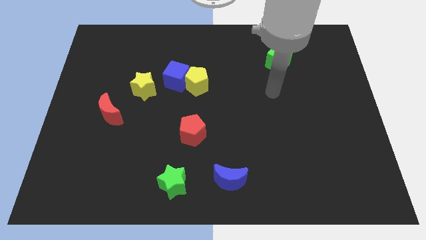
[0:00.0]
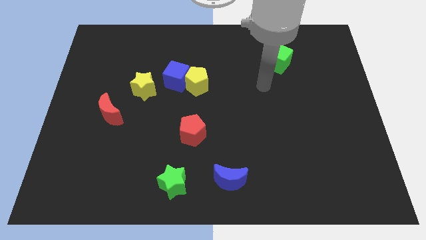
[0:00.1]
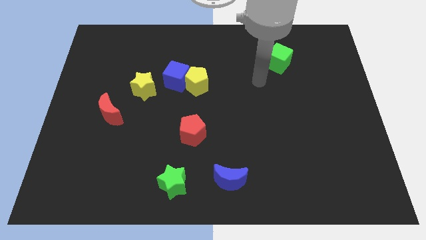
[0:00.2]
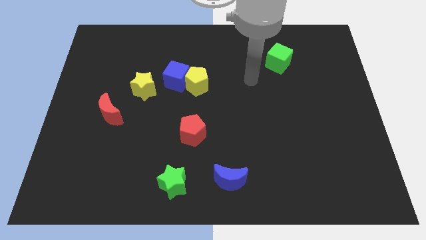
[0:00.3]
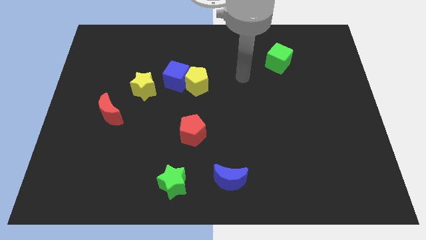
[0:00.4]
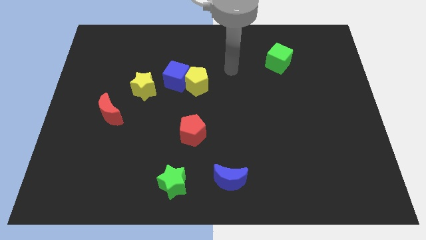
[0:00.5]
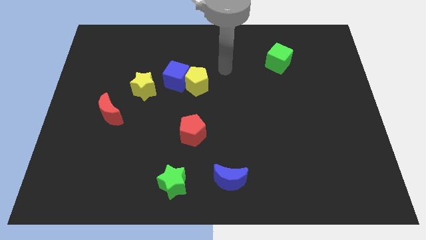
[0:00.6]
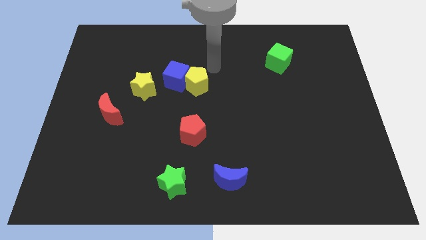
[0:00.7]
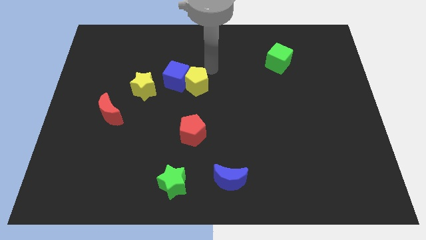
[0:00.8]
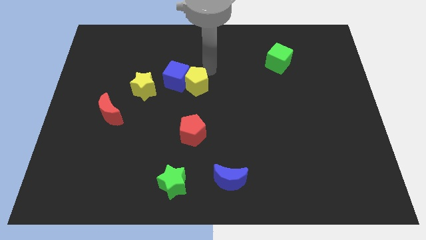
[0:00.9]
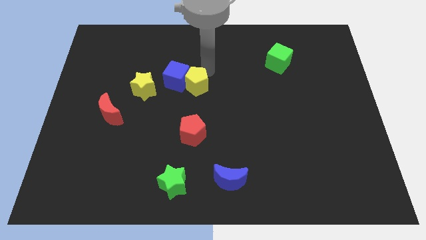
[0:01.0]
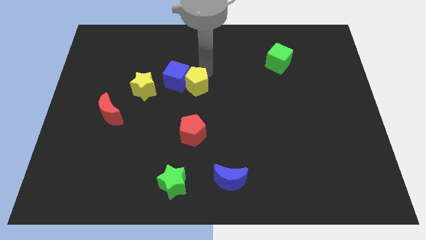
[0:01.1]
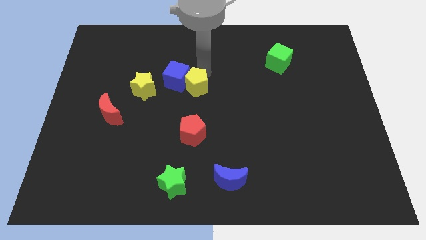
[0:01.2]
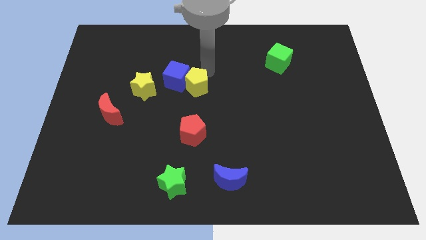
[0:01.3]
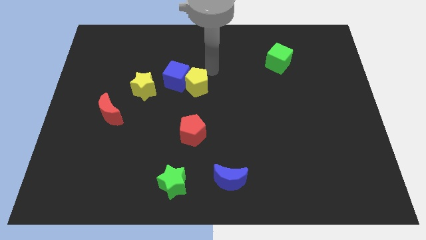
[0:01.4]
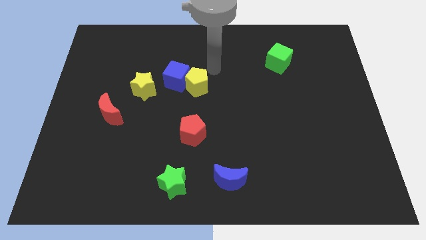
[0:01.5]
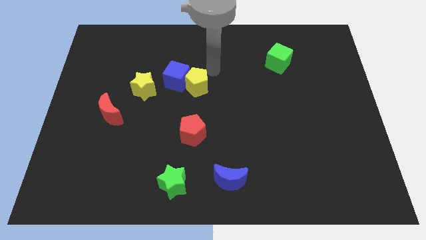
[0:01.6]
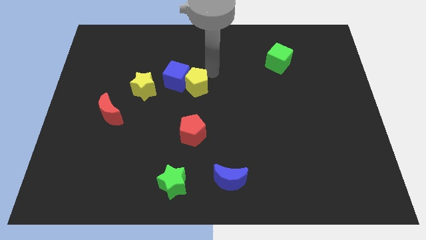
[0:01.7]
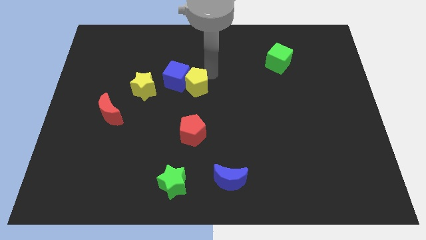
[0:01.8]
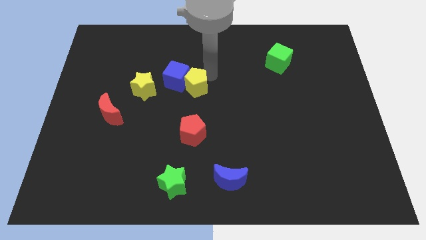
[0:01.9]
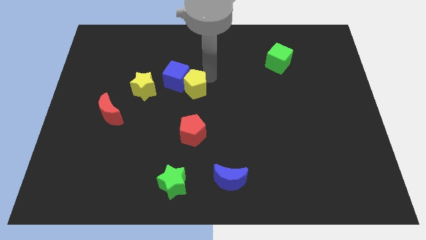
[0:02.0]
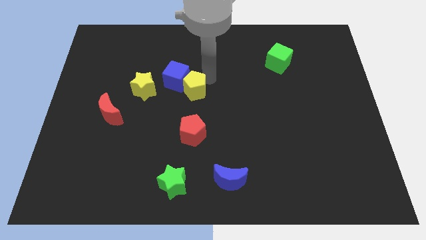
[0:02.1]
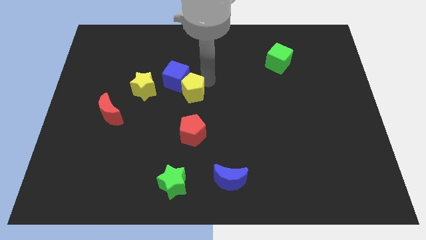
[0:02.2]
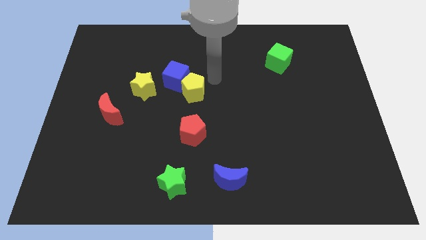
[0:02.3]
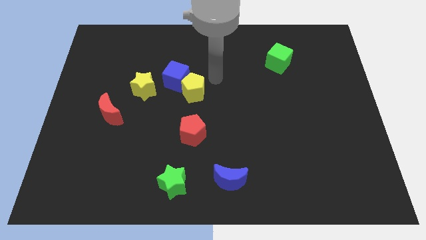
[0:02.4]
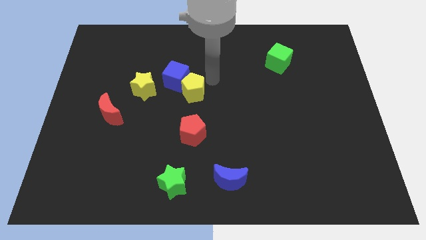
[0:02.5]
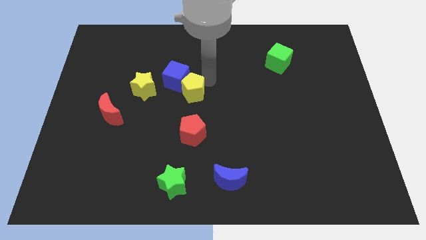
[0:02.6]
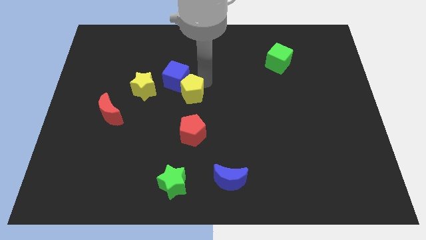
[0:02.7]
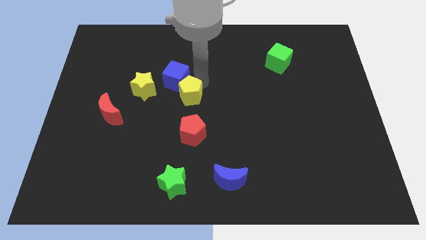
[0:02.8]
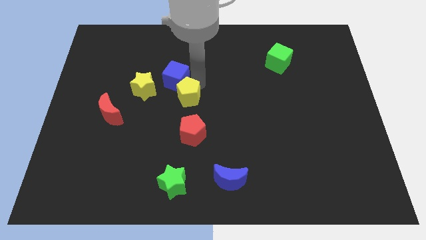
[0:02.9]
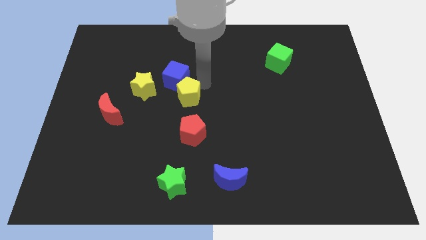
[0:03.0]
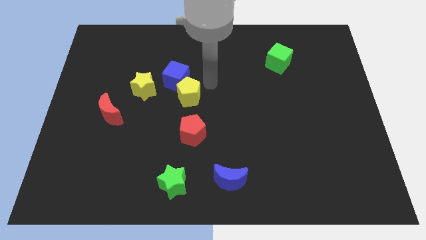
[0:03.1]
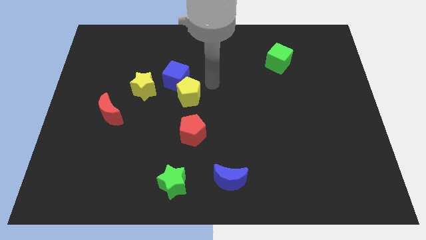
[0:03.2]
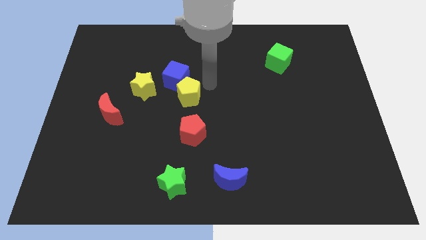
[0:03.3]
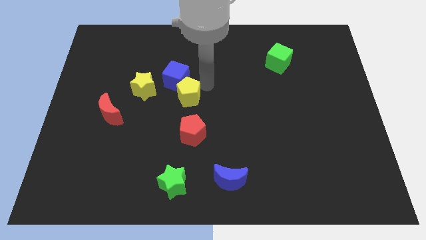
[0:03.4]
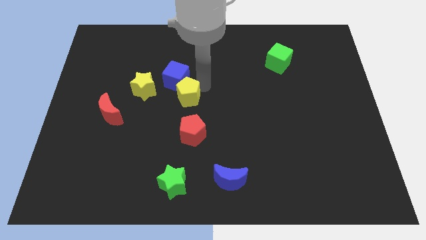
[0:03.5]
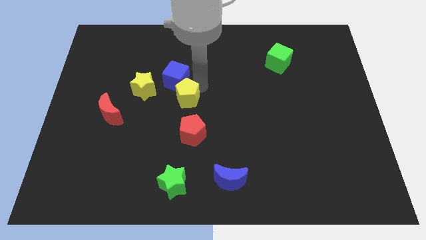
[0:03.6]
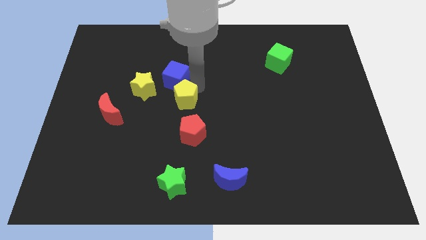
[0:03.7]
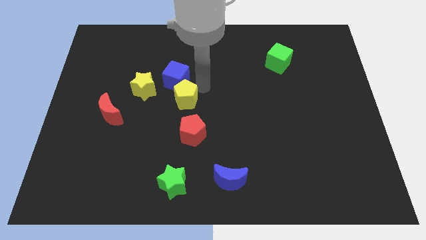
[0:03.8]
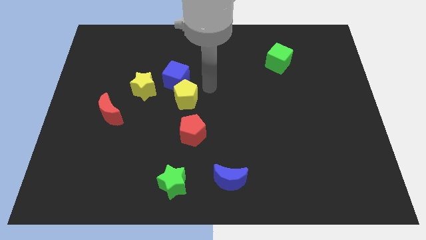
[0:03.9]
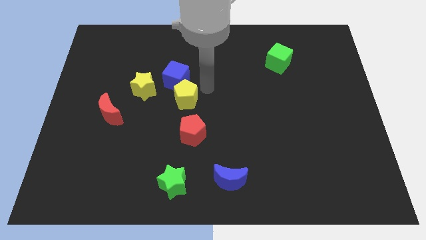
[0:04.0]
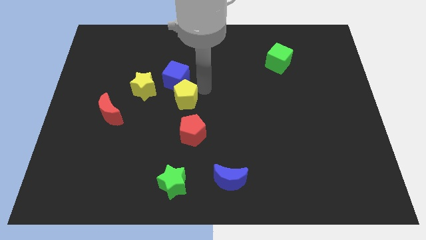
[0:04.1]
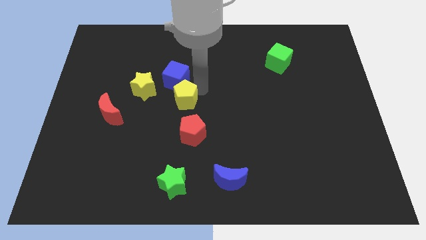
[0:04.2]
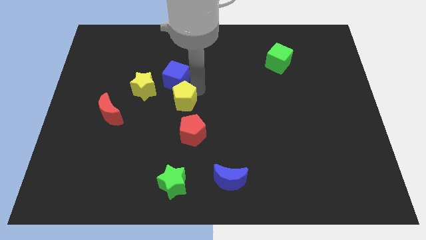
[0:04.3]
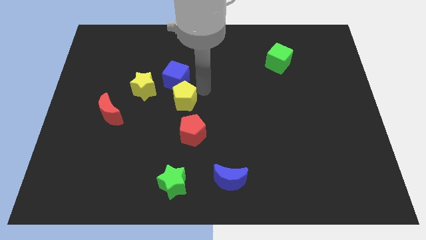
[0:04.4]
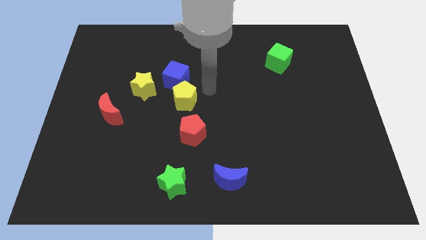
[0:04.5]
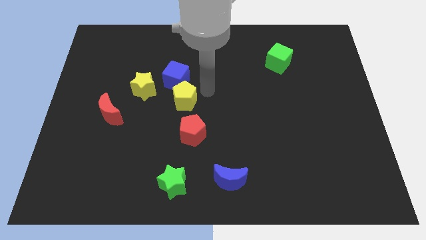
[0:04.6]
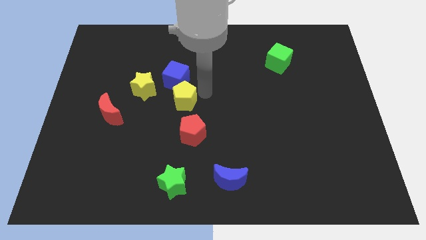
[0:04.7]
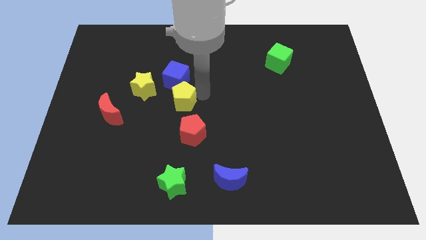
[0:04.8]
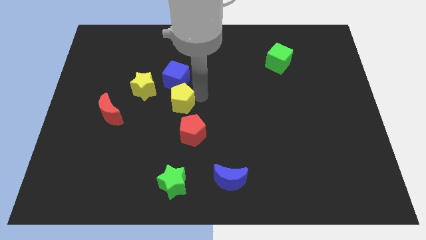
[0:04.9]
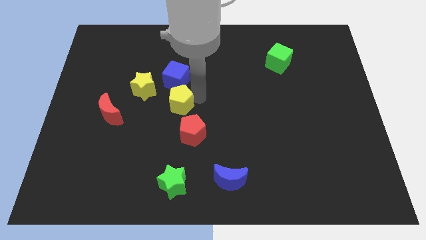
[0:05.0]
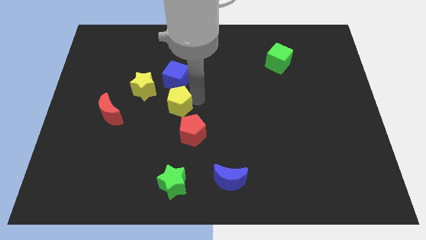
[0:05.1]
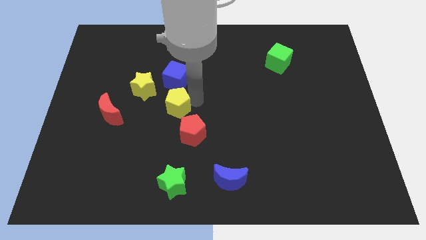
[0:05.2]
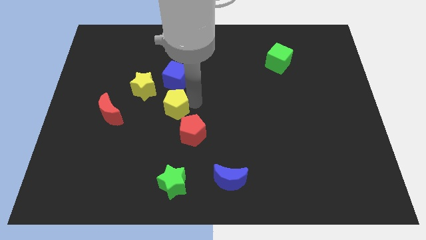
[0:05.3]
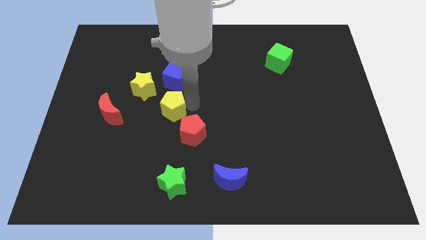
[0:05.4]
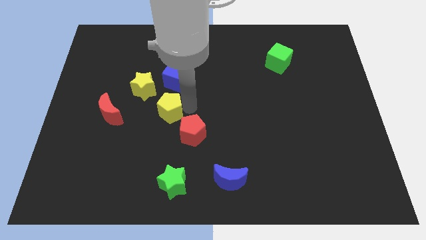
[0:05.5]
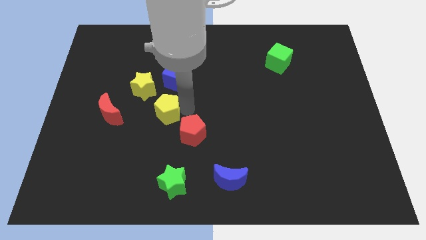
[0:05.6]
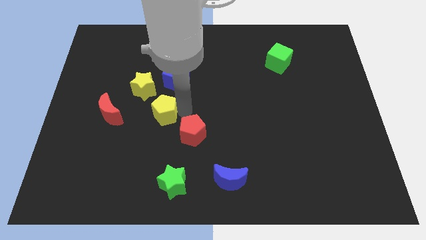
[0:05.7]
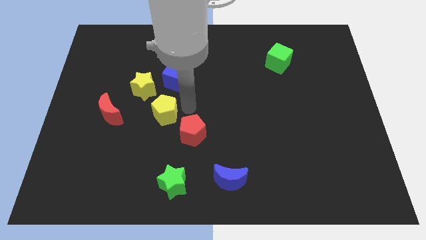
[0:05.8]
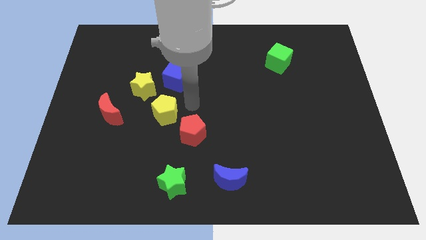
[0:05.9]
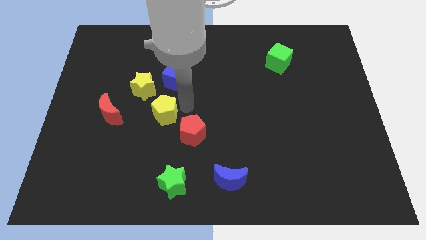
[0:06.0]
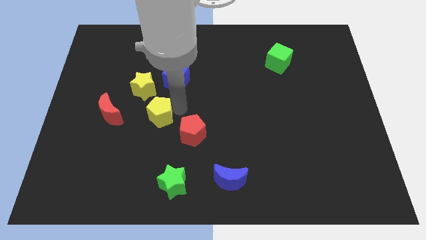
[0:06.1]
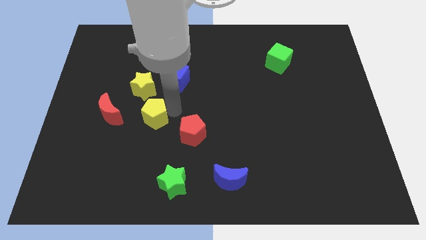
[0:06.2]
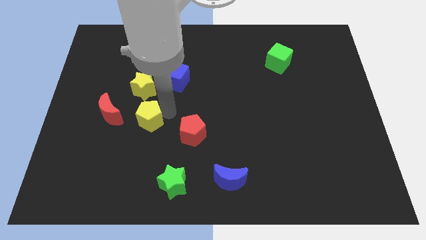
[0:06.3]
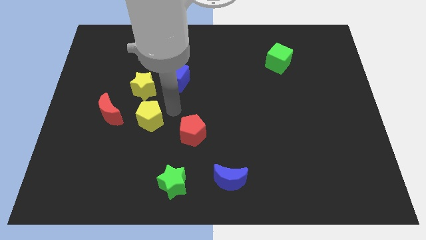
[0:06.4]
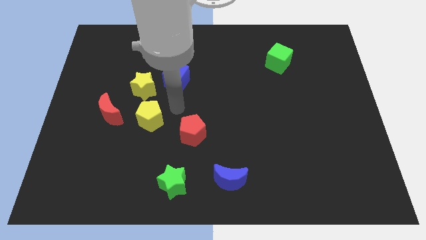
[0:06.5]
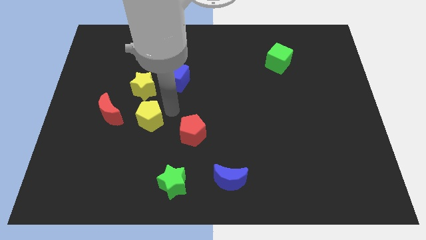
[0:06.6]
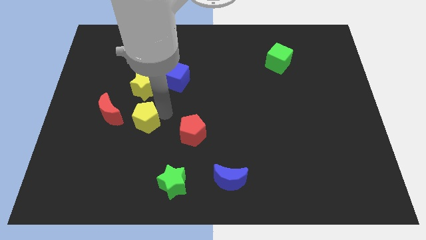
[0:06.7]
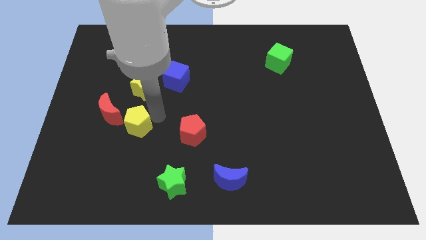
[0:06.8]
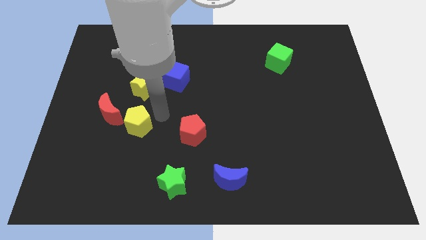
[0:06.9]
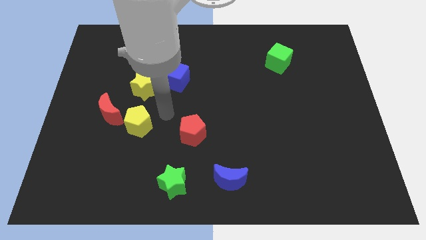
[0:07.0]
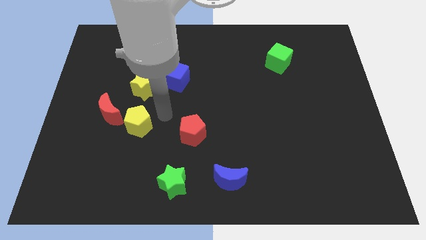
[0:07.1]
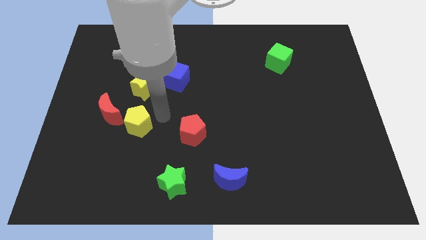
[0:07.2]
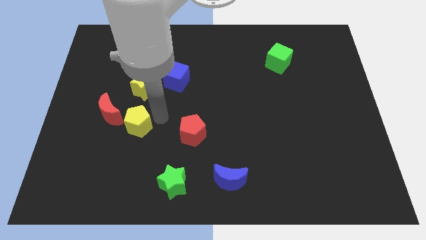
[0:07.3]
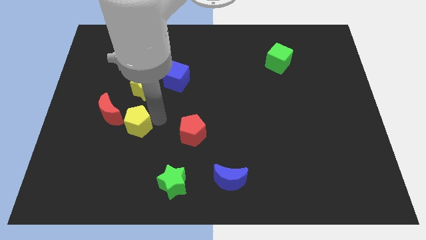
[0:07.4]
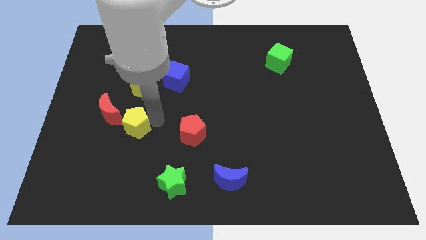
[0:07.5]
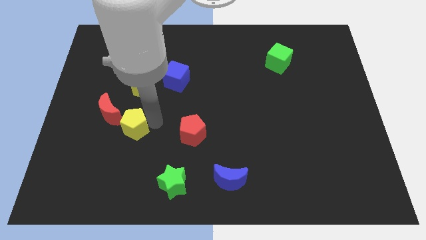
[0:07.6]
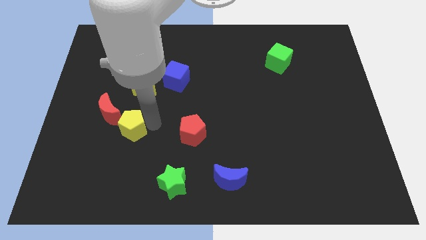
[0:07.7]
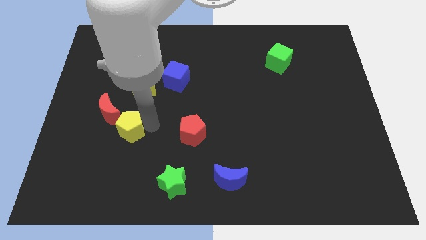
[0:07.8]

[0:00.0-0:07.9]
slide the yellow pentagon diagonally downwards and to the left

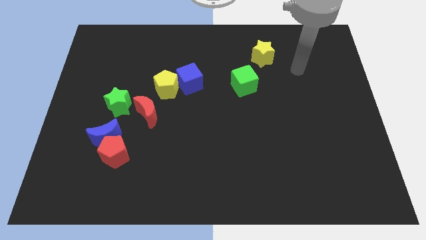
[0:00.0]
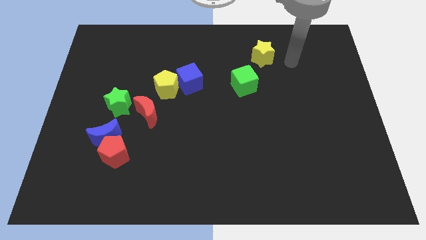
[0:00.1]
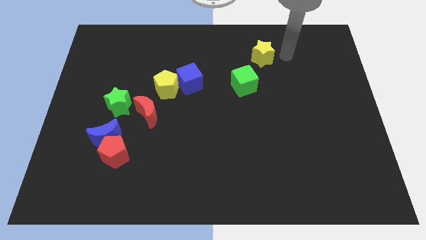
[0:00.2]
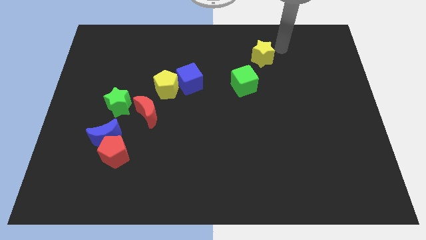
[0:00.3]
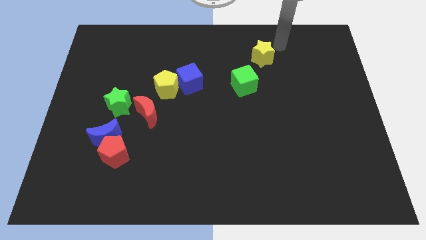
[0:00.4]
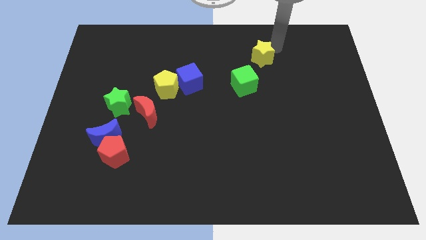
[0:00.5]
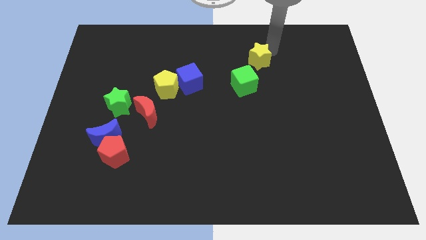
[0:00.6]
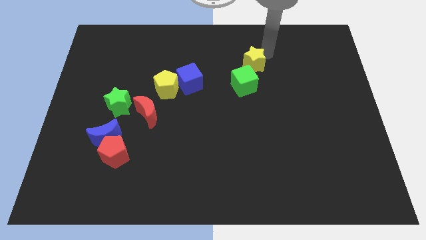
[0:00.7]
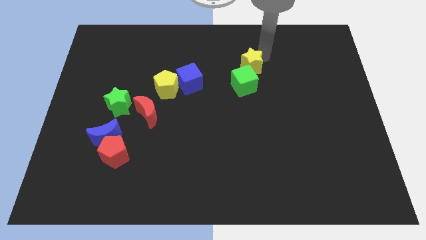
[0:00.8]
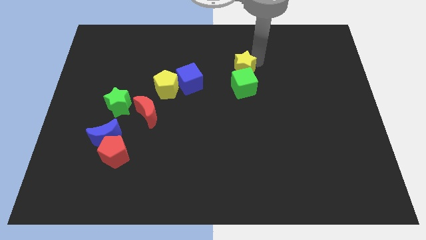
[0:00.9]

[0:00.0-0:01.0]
slide the yellow star a little bit downwards and then left
